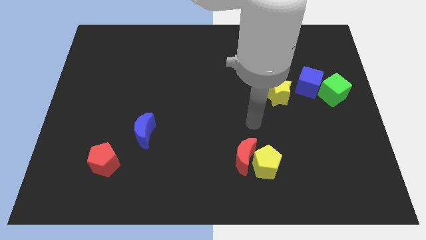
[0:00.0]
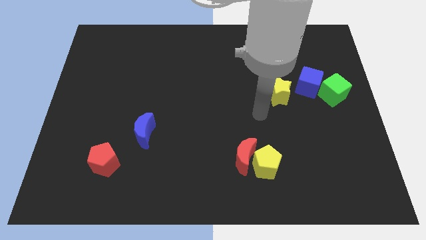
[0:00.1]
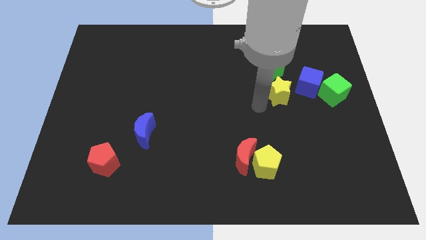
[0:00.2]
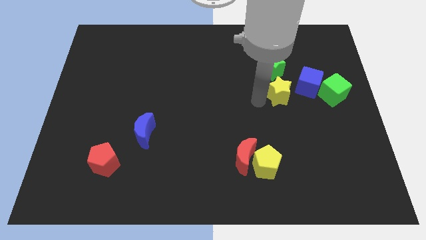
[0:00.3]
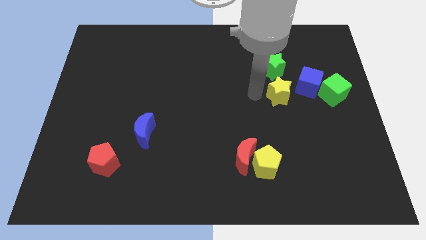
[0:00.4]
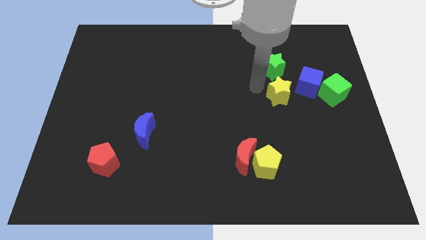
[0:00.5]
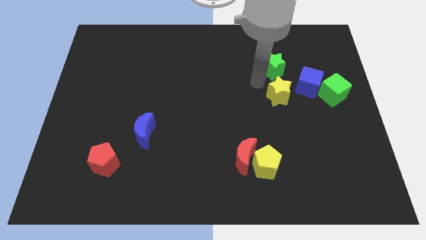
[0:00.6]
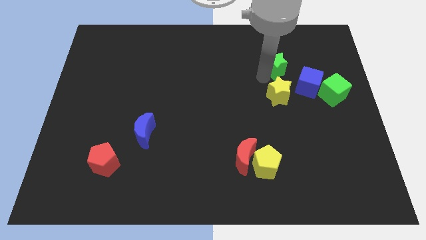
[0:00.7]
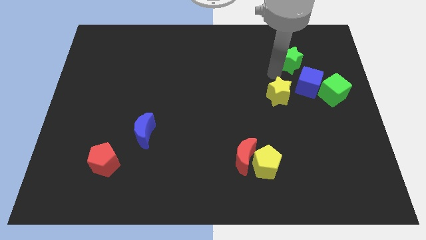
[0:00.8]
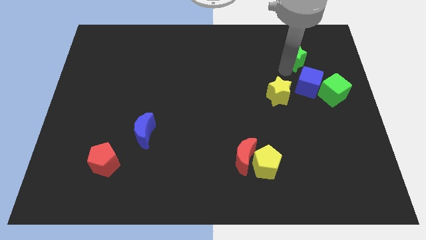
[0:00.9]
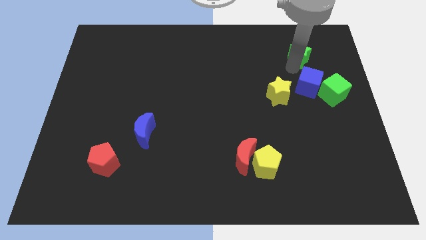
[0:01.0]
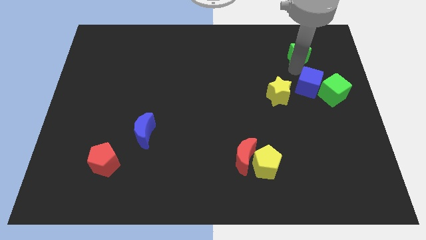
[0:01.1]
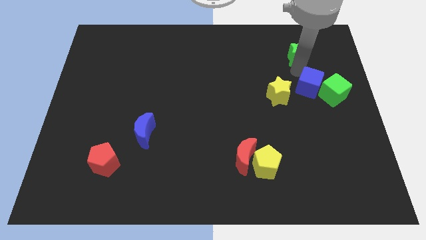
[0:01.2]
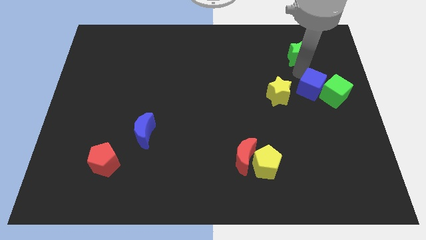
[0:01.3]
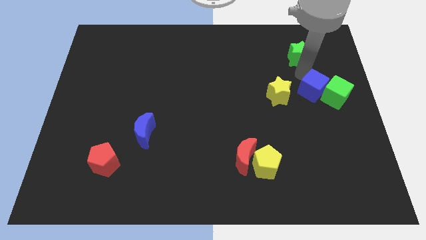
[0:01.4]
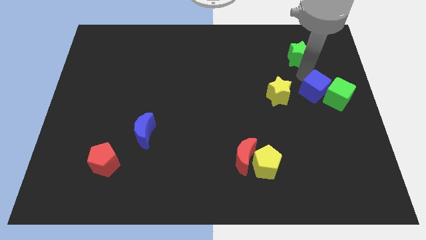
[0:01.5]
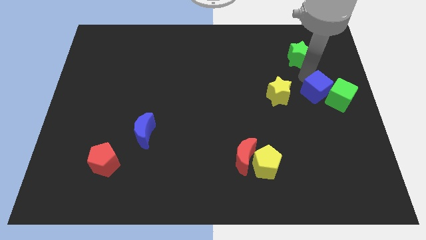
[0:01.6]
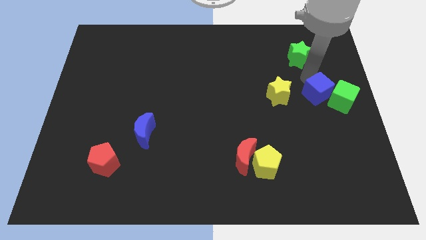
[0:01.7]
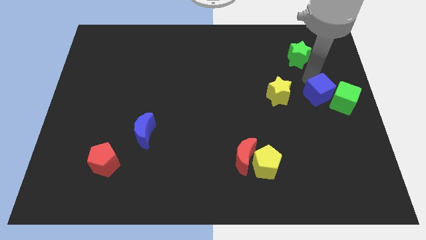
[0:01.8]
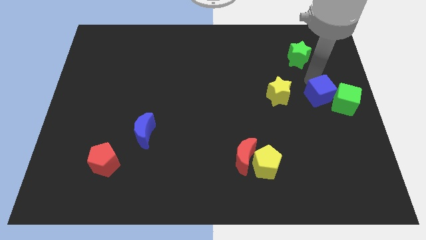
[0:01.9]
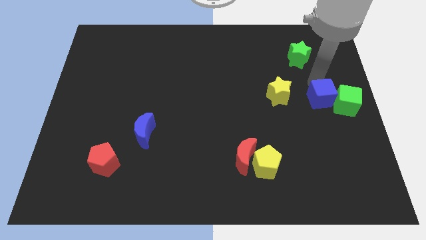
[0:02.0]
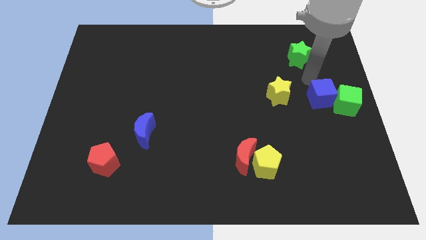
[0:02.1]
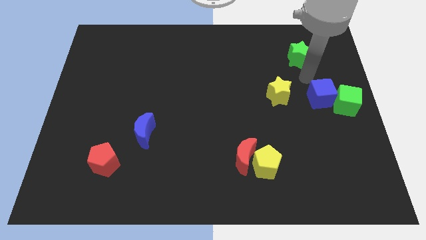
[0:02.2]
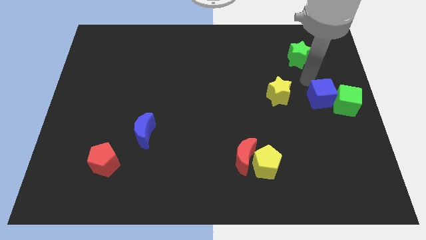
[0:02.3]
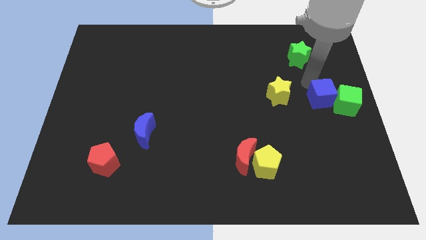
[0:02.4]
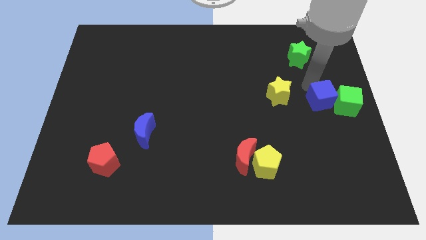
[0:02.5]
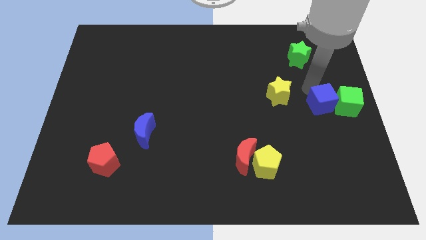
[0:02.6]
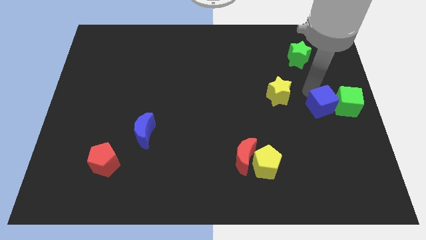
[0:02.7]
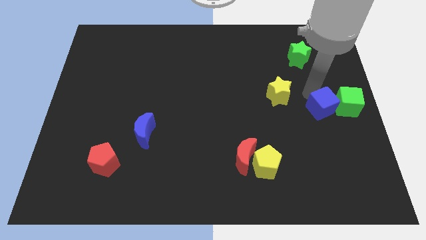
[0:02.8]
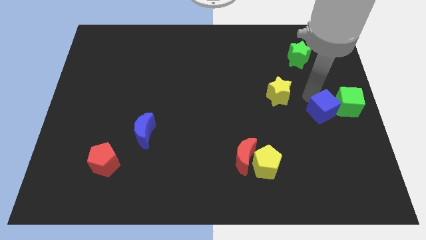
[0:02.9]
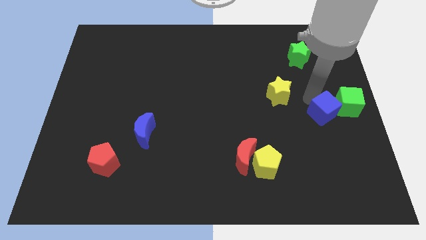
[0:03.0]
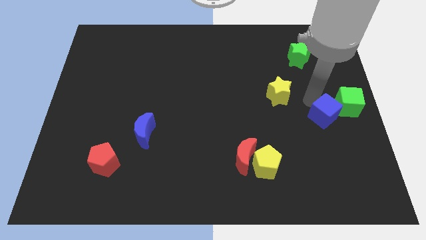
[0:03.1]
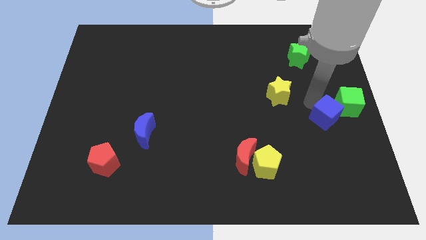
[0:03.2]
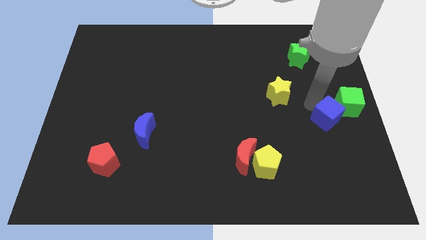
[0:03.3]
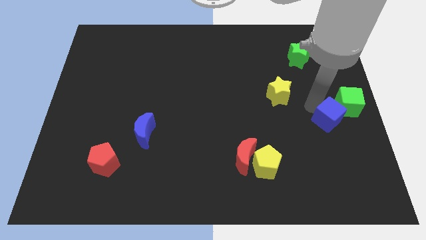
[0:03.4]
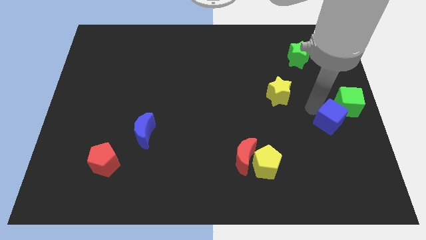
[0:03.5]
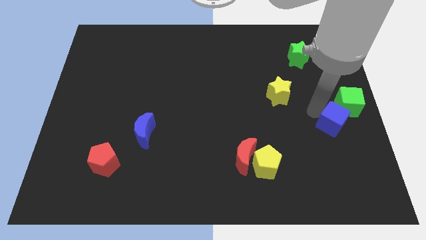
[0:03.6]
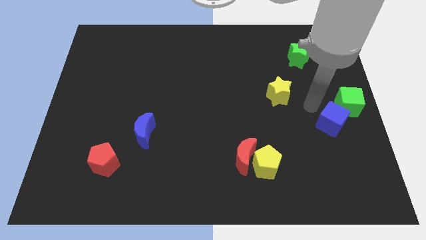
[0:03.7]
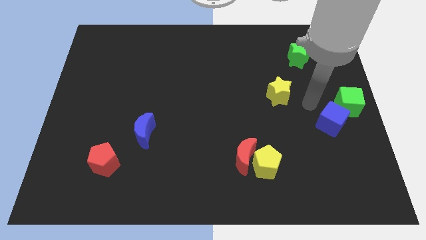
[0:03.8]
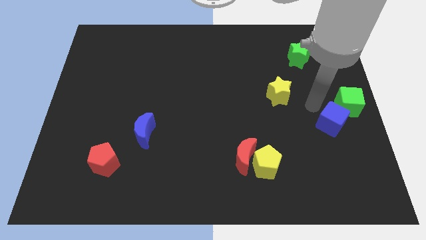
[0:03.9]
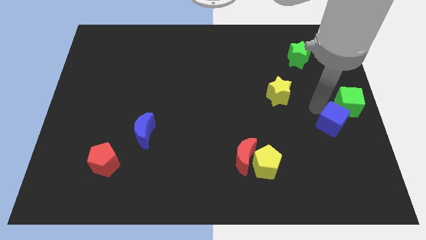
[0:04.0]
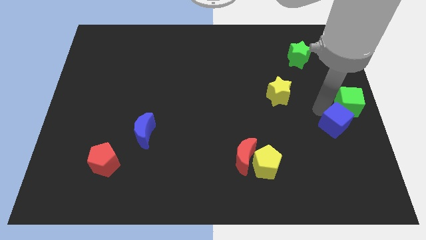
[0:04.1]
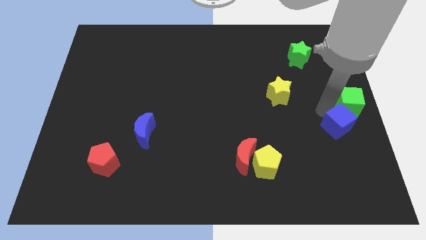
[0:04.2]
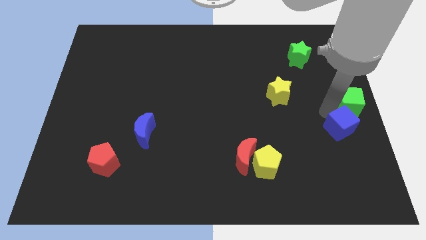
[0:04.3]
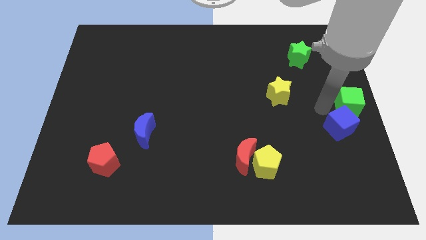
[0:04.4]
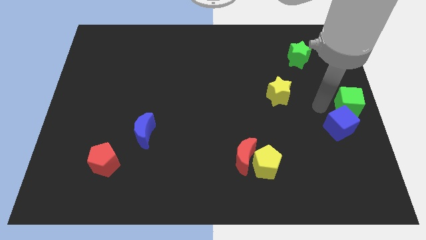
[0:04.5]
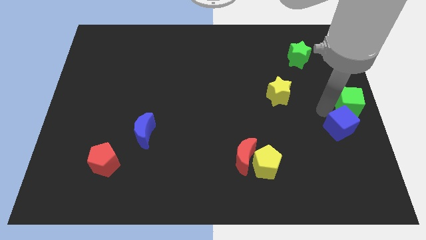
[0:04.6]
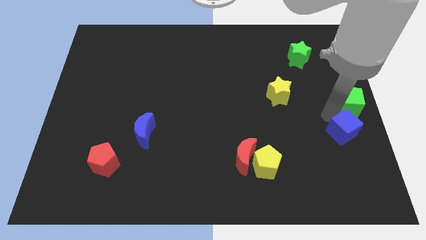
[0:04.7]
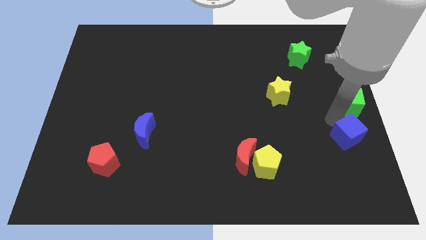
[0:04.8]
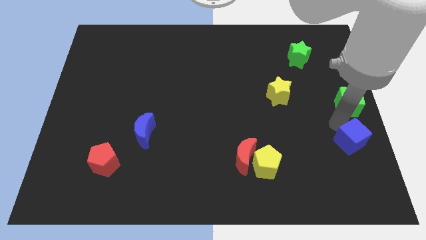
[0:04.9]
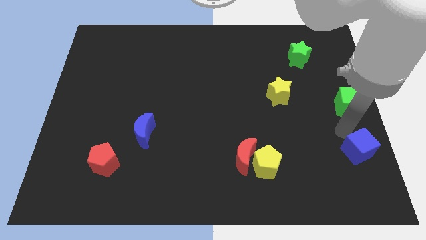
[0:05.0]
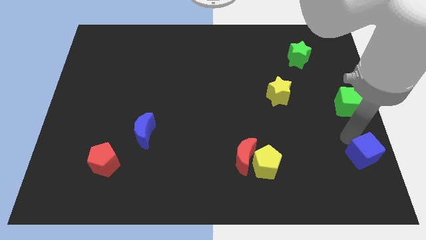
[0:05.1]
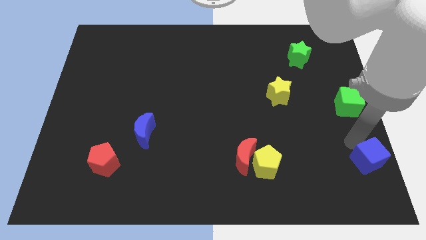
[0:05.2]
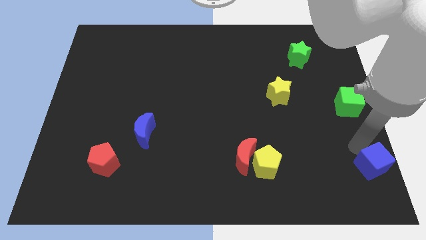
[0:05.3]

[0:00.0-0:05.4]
slide the blue cube to the bottom right
